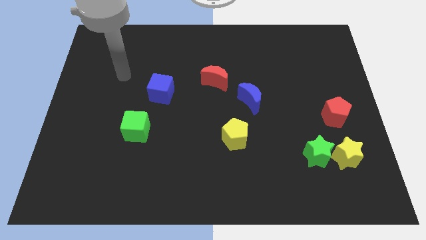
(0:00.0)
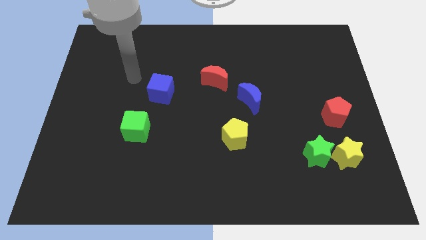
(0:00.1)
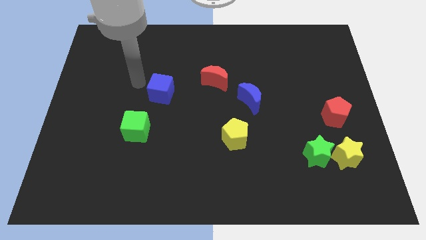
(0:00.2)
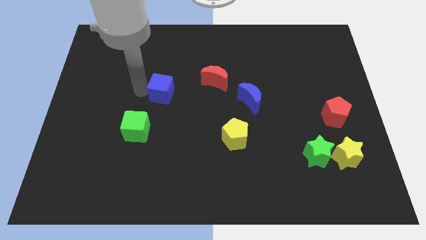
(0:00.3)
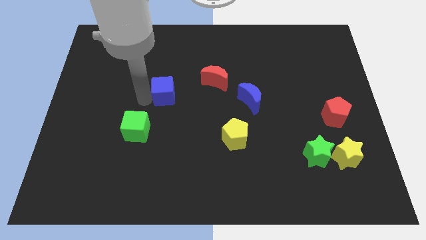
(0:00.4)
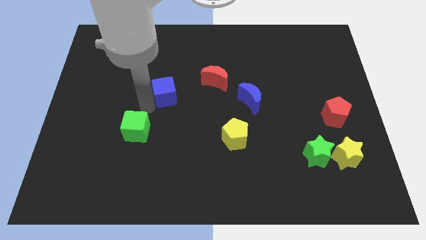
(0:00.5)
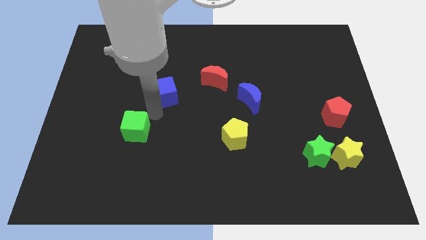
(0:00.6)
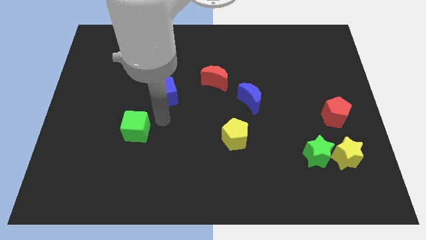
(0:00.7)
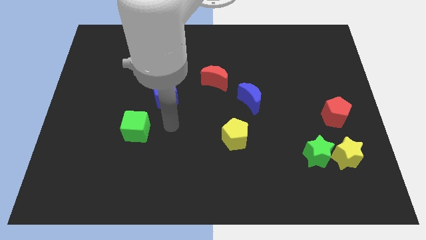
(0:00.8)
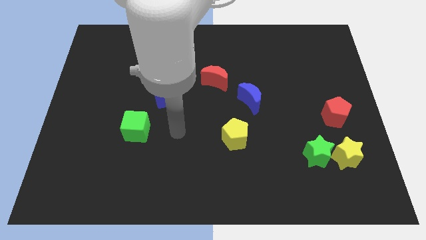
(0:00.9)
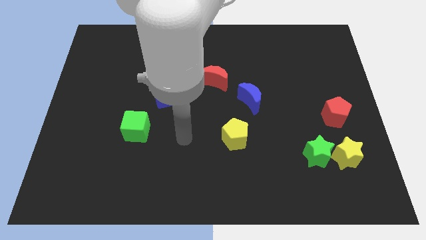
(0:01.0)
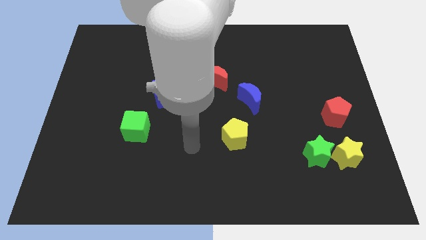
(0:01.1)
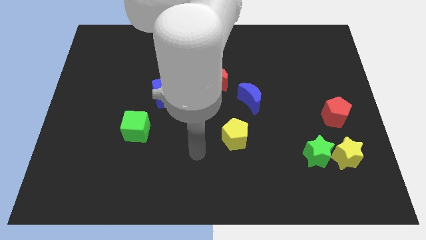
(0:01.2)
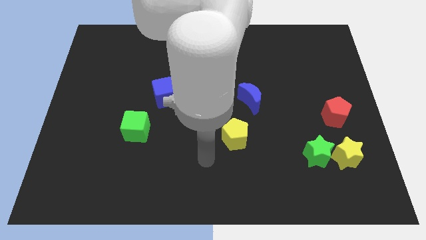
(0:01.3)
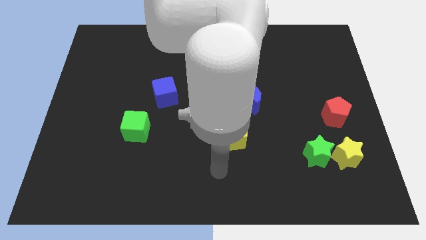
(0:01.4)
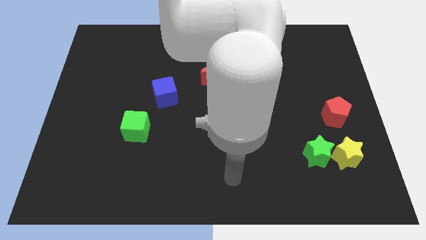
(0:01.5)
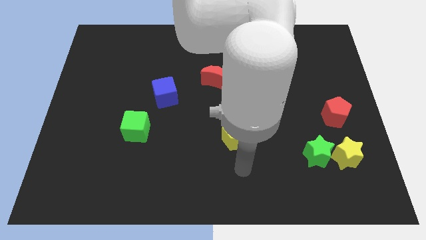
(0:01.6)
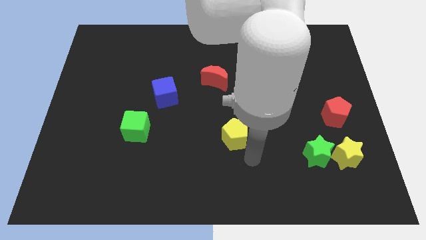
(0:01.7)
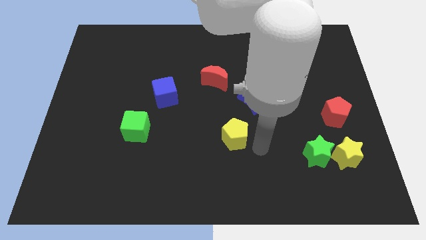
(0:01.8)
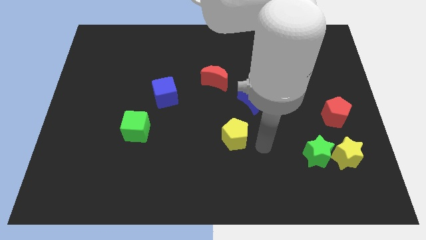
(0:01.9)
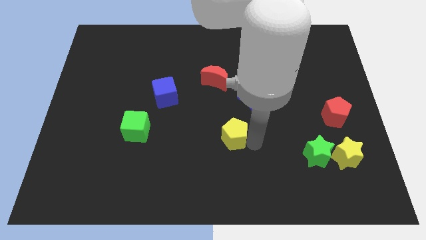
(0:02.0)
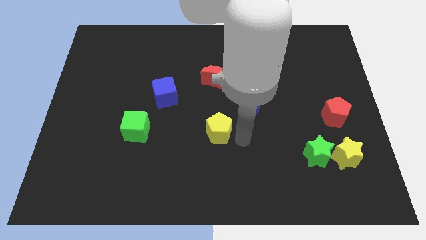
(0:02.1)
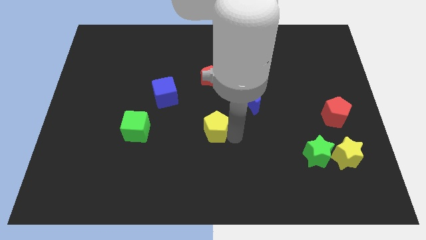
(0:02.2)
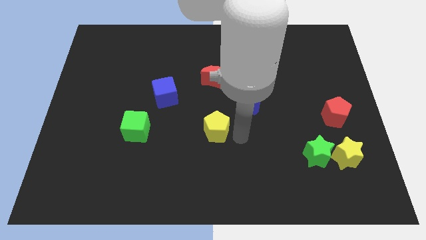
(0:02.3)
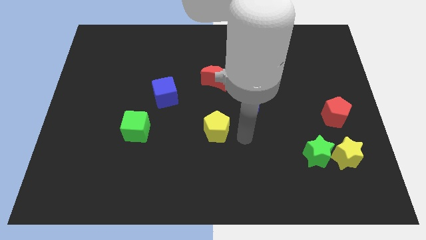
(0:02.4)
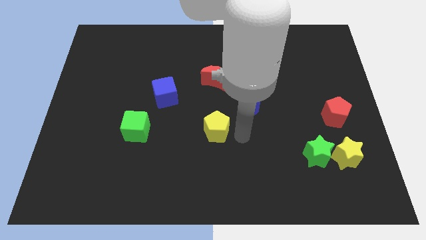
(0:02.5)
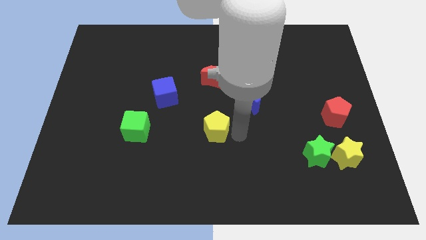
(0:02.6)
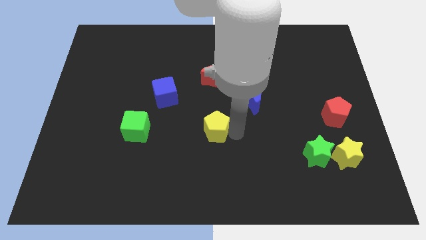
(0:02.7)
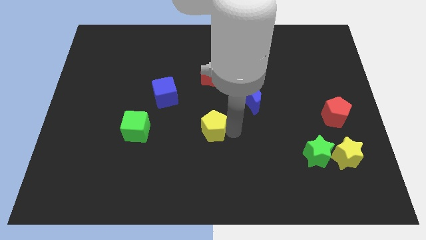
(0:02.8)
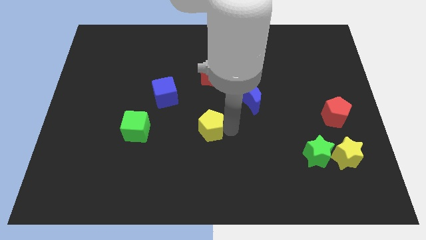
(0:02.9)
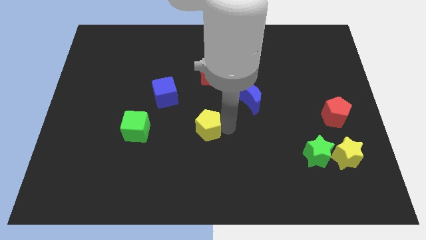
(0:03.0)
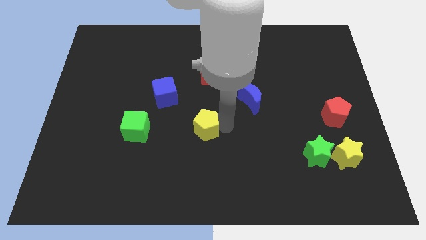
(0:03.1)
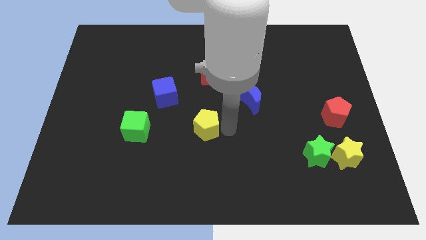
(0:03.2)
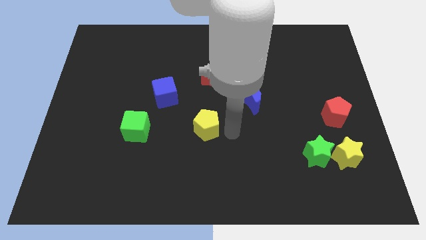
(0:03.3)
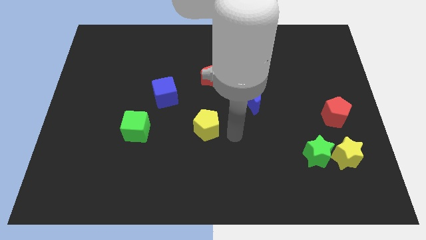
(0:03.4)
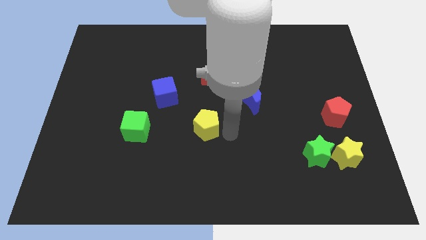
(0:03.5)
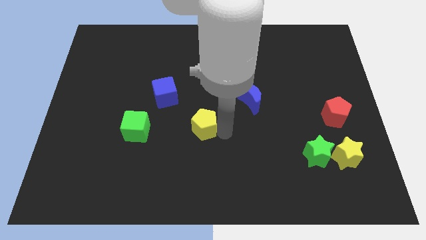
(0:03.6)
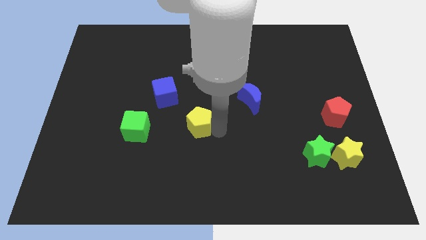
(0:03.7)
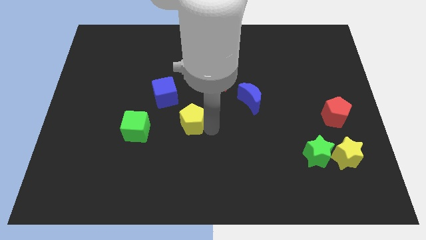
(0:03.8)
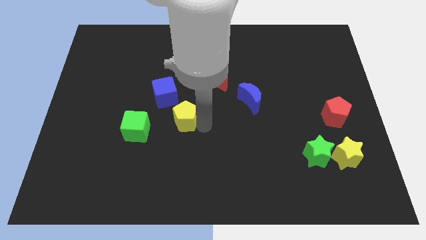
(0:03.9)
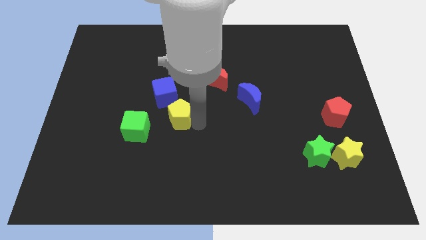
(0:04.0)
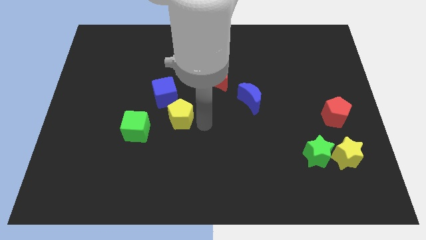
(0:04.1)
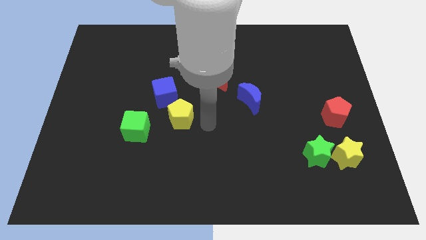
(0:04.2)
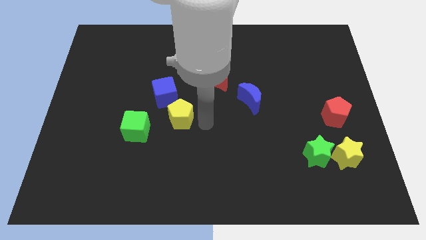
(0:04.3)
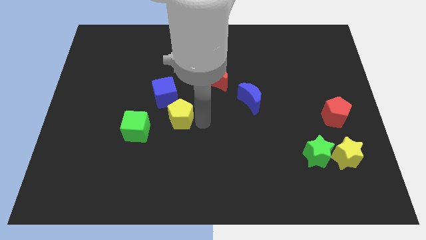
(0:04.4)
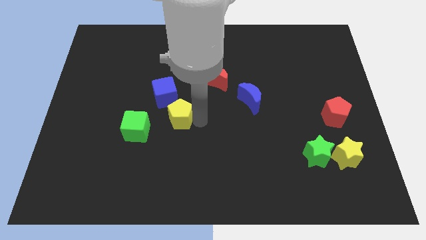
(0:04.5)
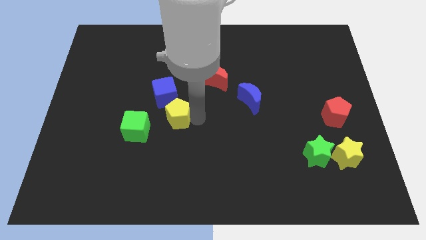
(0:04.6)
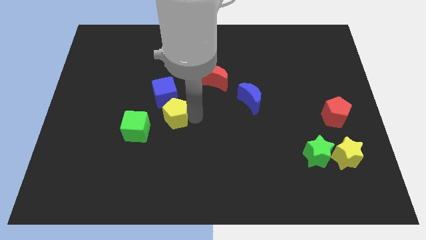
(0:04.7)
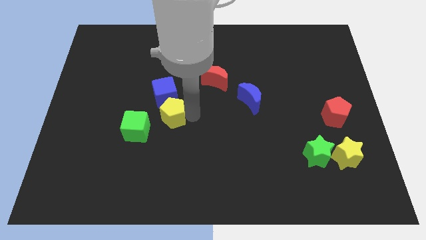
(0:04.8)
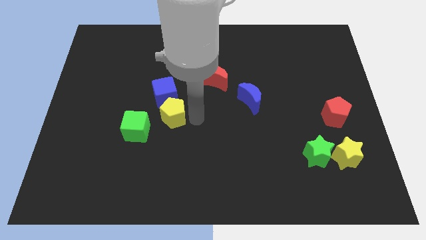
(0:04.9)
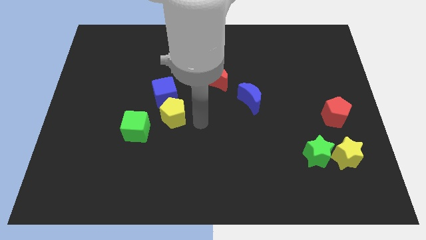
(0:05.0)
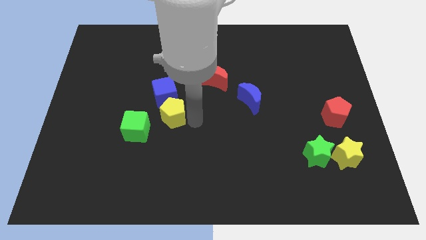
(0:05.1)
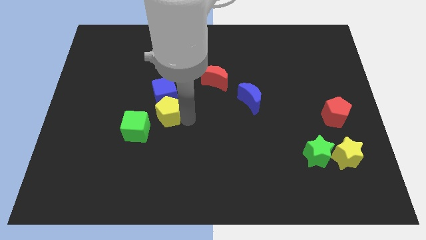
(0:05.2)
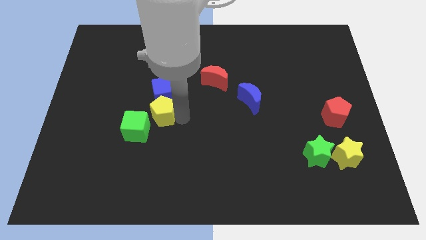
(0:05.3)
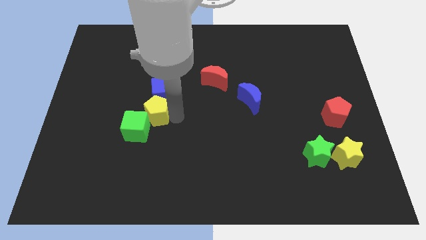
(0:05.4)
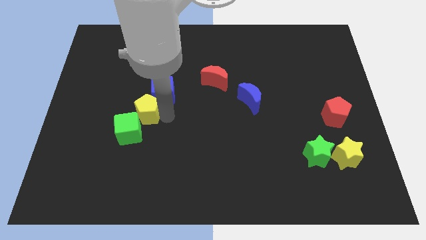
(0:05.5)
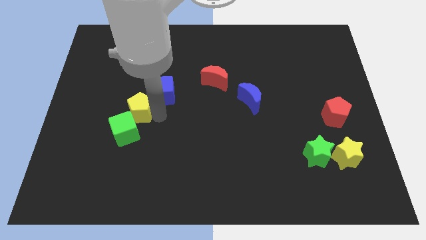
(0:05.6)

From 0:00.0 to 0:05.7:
push the yellow pentagon to the left of the blue cube

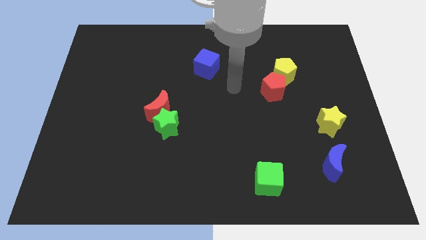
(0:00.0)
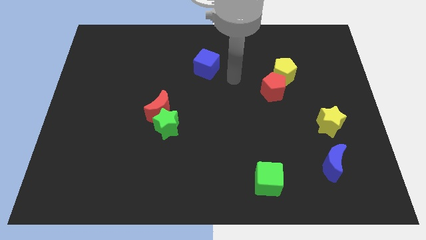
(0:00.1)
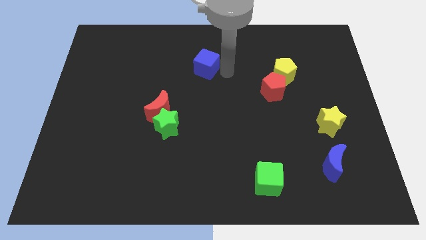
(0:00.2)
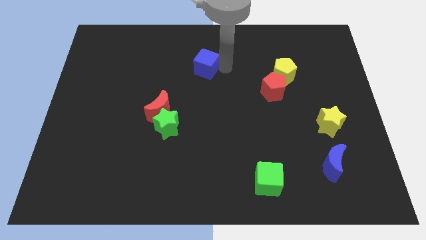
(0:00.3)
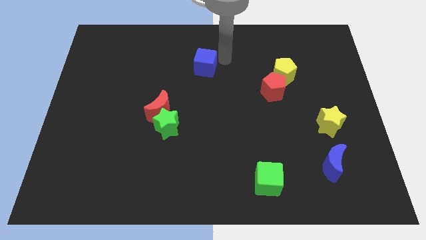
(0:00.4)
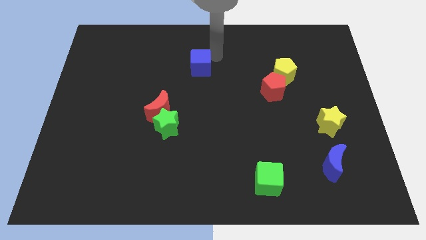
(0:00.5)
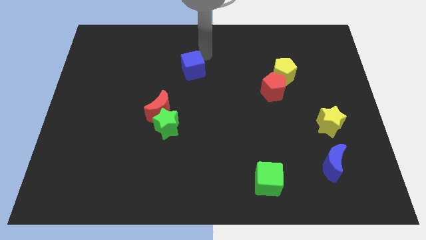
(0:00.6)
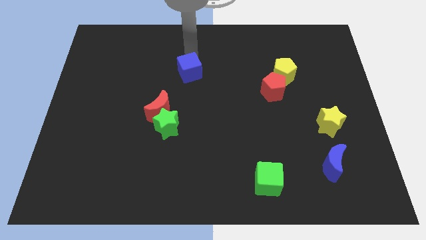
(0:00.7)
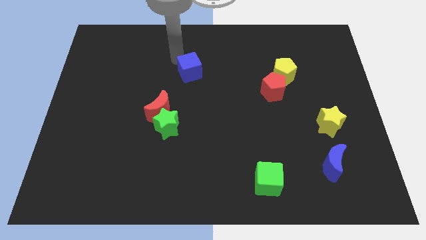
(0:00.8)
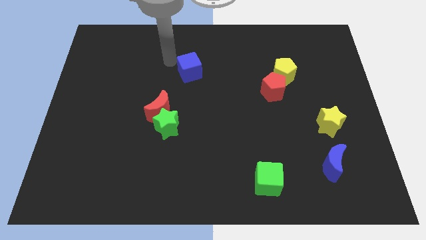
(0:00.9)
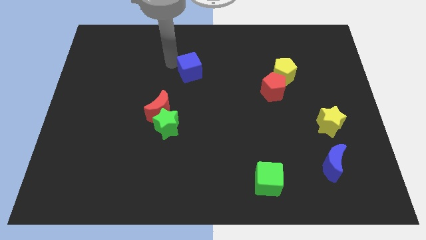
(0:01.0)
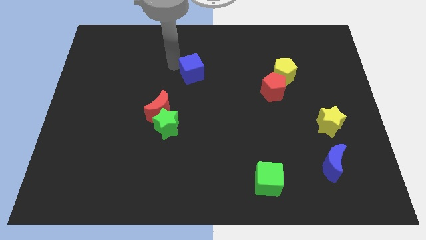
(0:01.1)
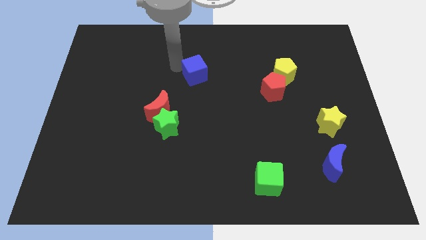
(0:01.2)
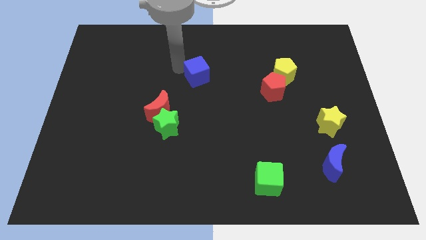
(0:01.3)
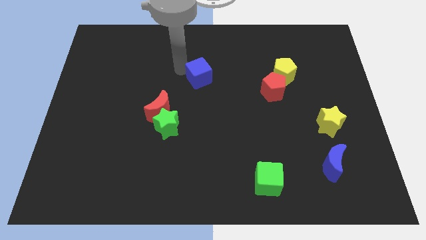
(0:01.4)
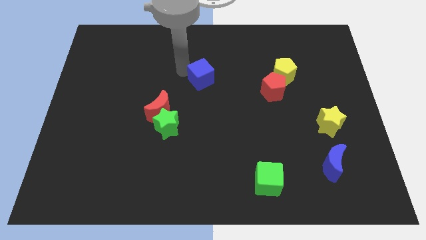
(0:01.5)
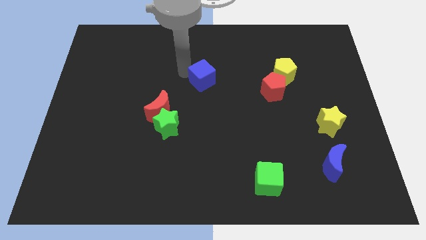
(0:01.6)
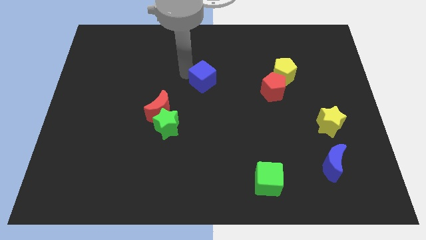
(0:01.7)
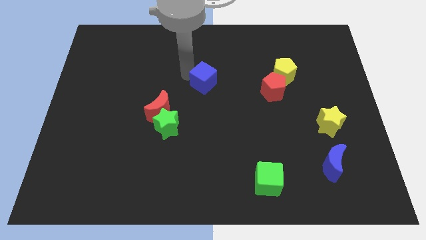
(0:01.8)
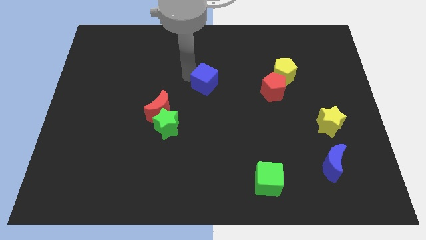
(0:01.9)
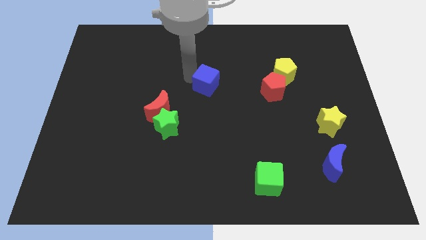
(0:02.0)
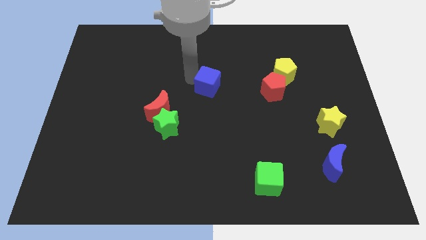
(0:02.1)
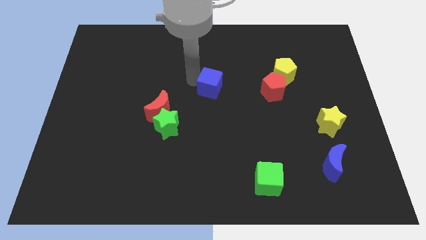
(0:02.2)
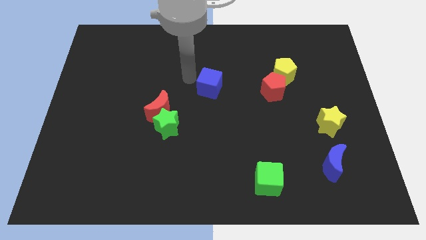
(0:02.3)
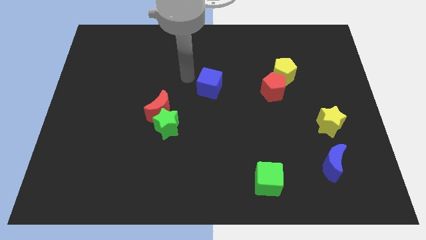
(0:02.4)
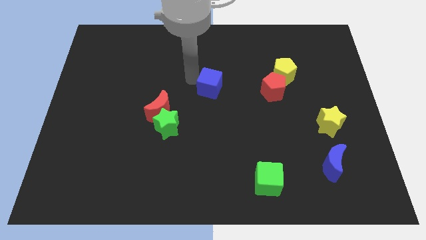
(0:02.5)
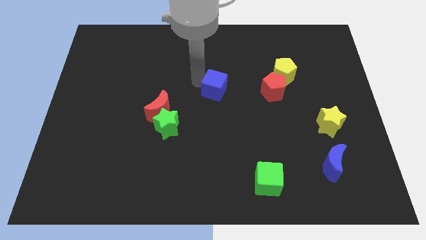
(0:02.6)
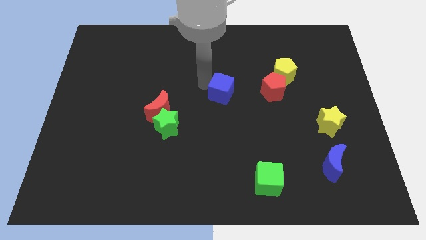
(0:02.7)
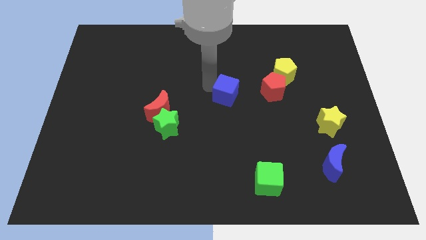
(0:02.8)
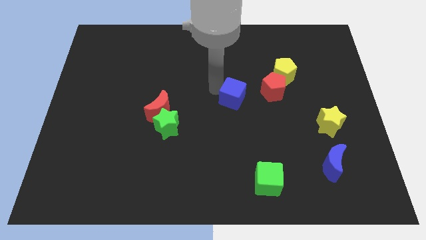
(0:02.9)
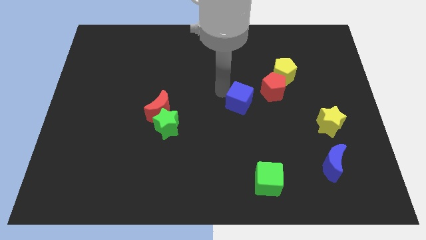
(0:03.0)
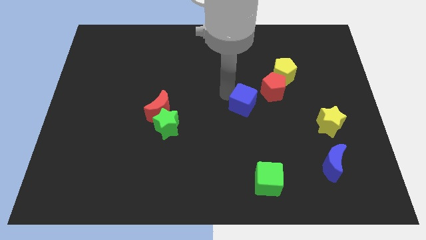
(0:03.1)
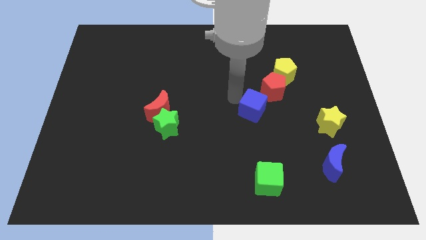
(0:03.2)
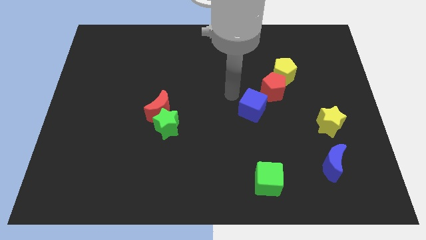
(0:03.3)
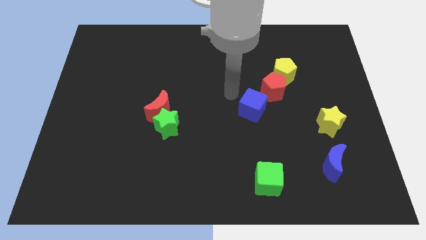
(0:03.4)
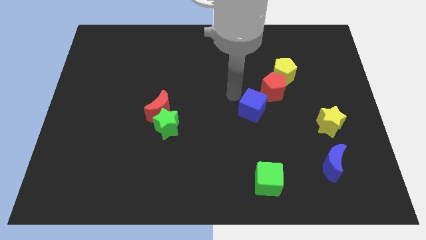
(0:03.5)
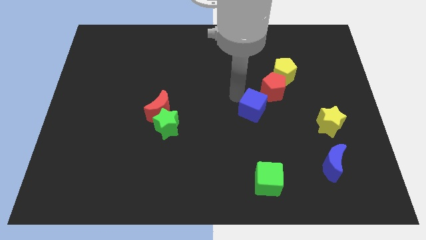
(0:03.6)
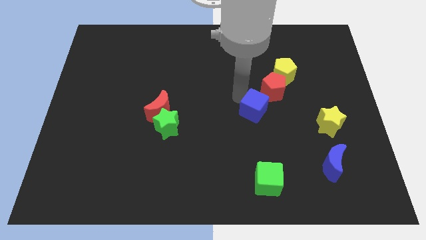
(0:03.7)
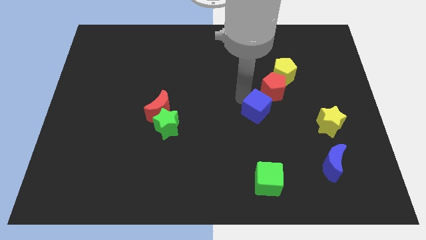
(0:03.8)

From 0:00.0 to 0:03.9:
push the blue cube below the red pentagon
